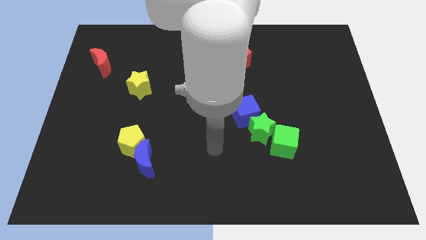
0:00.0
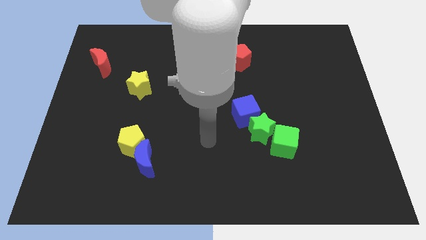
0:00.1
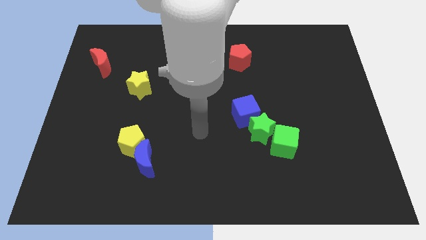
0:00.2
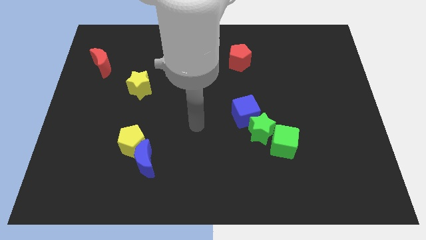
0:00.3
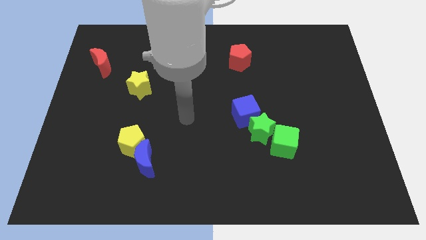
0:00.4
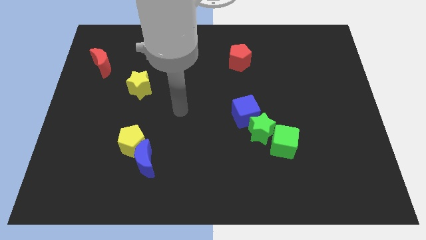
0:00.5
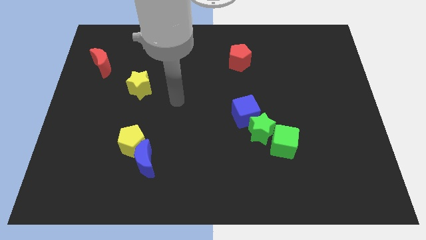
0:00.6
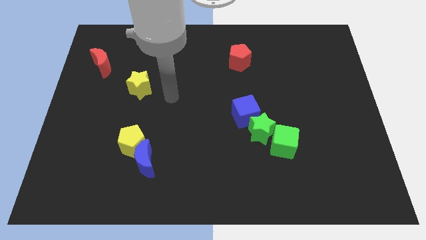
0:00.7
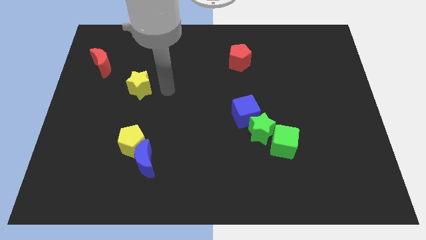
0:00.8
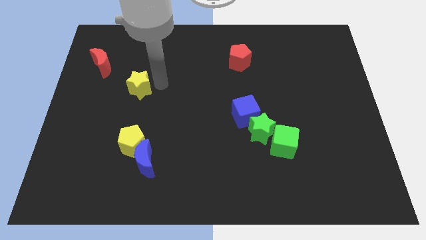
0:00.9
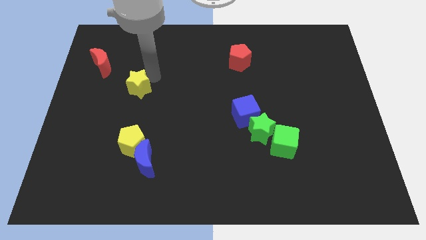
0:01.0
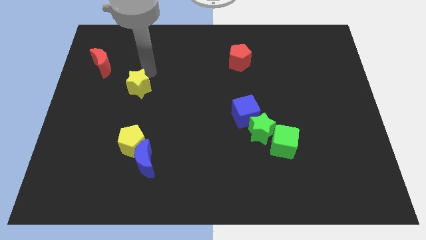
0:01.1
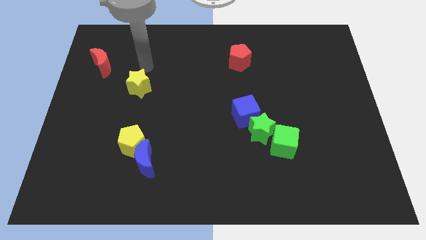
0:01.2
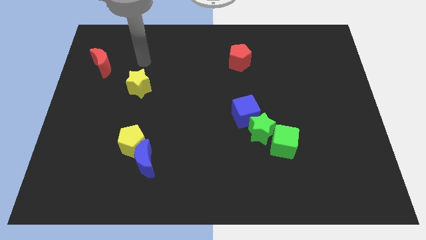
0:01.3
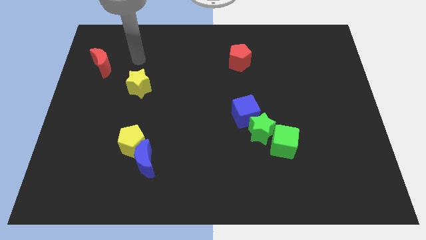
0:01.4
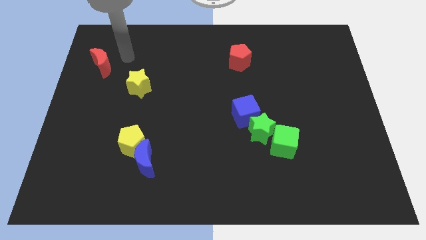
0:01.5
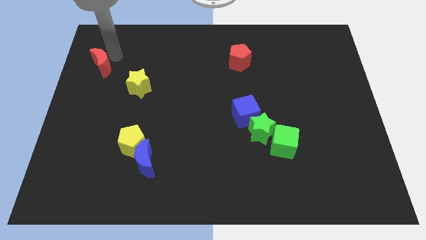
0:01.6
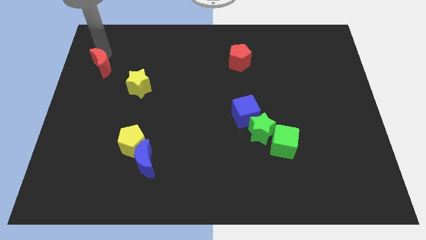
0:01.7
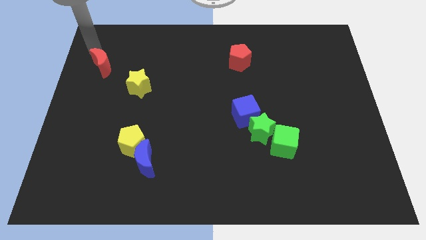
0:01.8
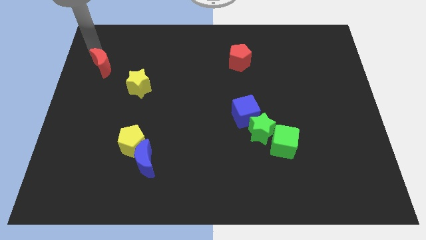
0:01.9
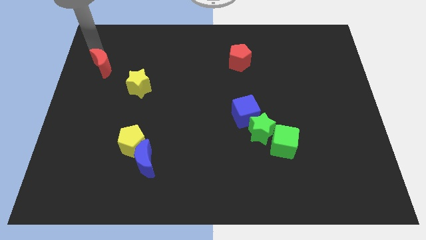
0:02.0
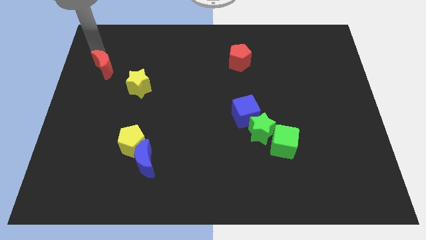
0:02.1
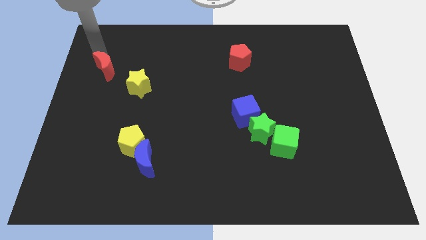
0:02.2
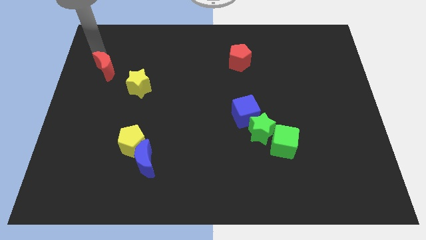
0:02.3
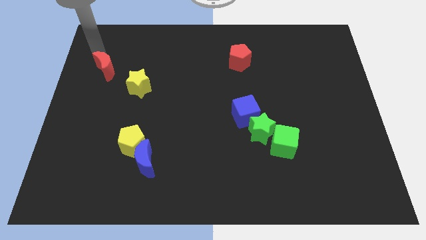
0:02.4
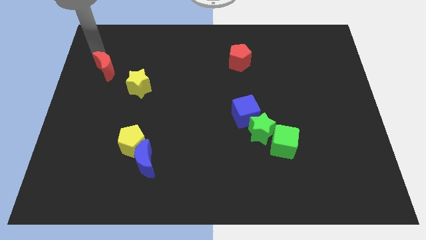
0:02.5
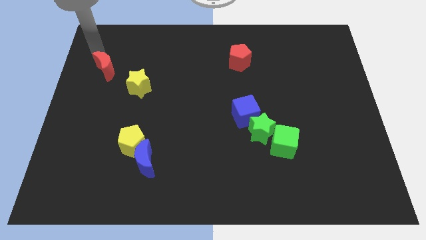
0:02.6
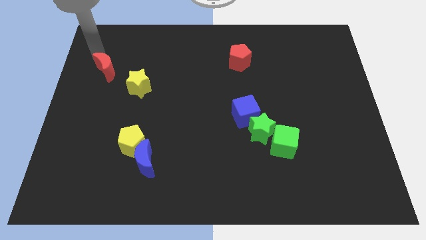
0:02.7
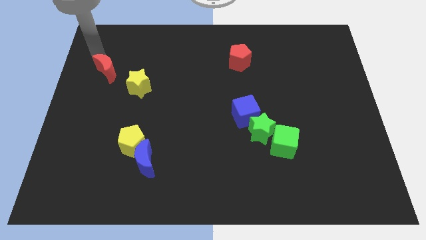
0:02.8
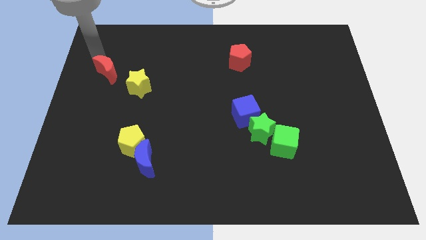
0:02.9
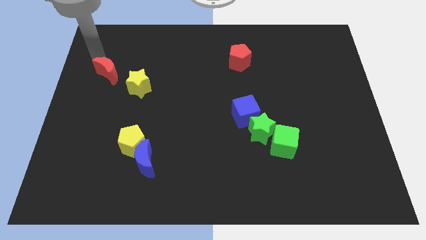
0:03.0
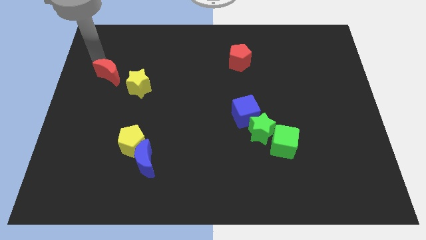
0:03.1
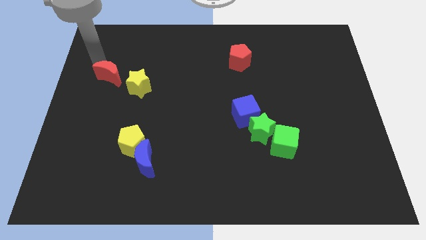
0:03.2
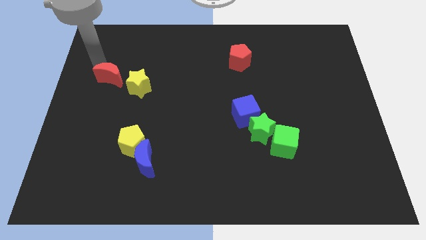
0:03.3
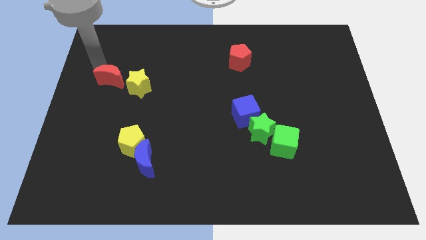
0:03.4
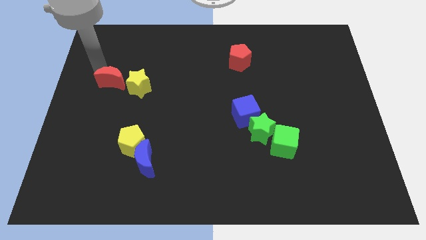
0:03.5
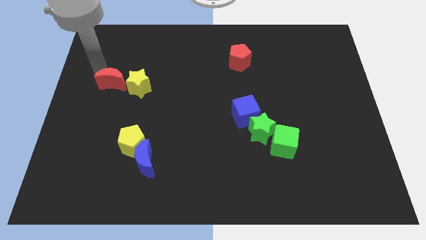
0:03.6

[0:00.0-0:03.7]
slide the red moon diagonally downwards and to the right slightly

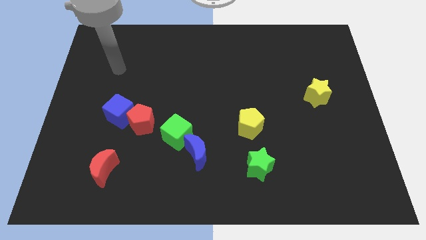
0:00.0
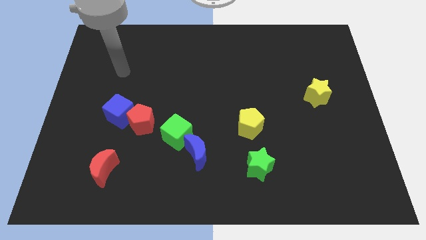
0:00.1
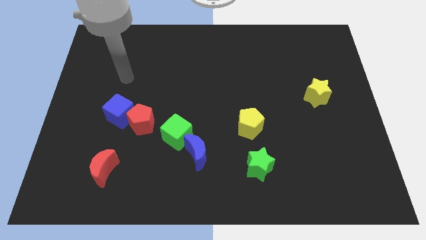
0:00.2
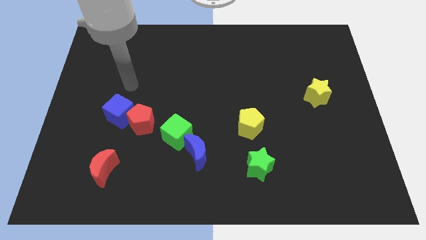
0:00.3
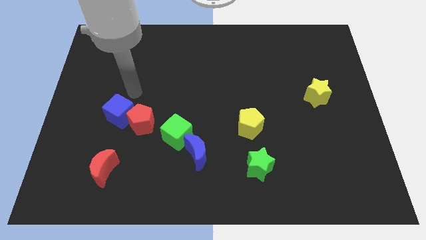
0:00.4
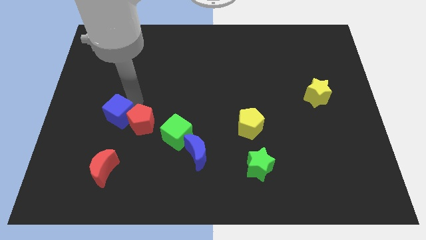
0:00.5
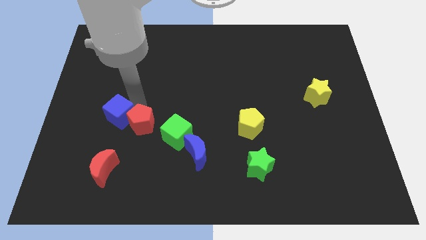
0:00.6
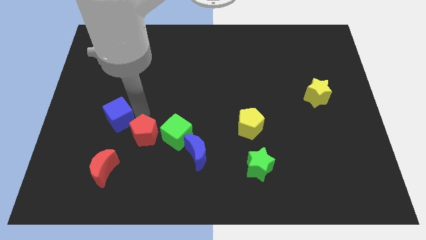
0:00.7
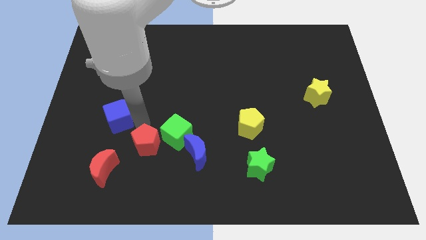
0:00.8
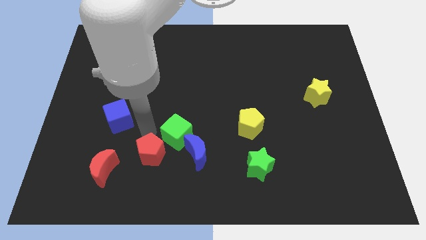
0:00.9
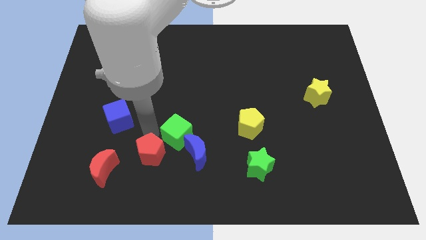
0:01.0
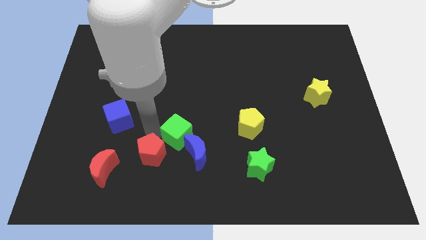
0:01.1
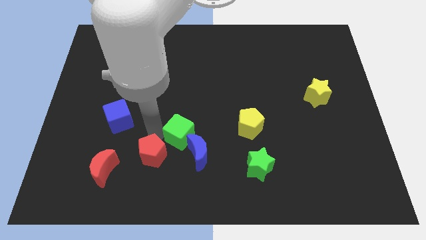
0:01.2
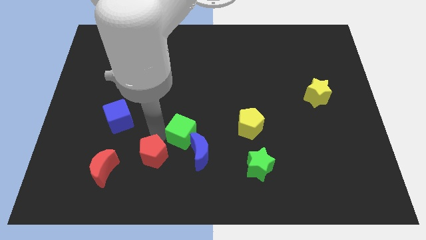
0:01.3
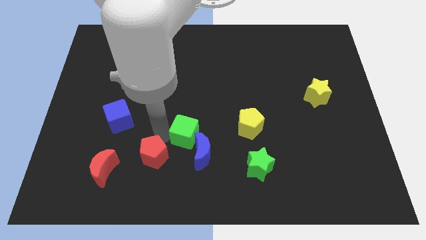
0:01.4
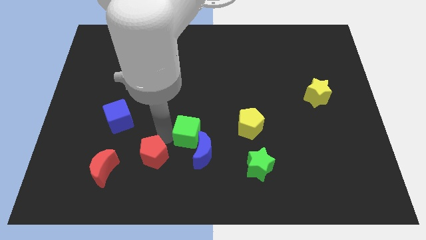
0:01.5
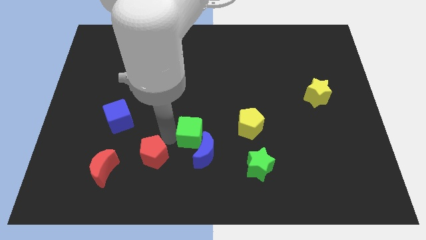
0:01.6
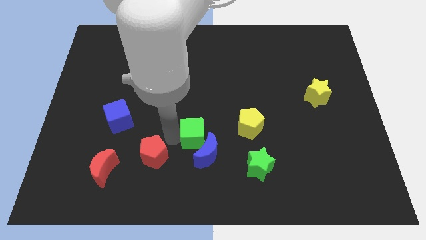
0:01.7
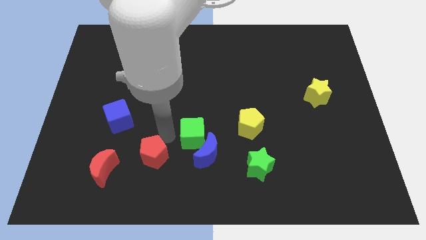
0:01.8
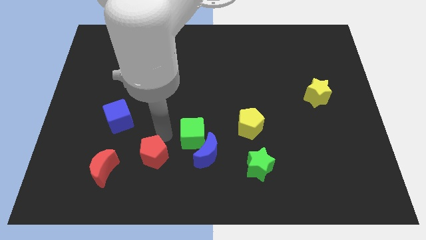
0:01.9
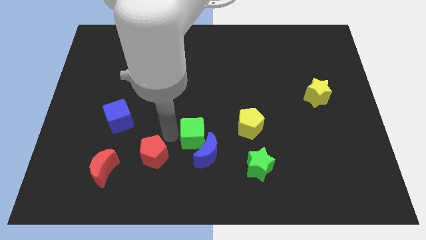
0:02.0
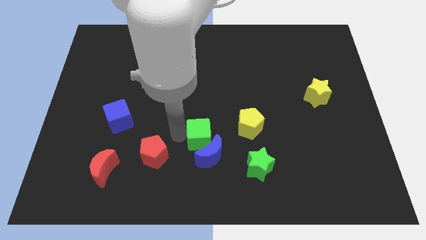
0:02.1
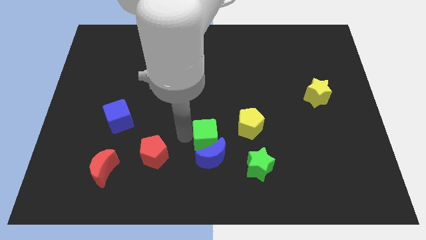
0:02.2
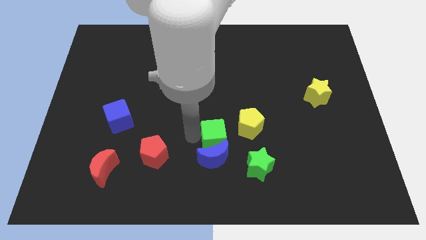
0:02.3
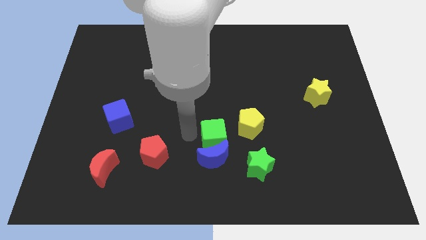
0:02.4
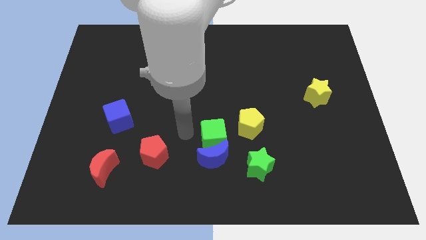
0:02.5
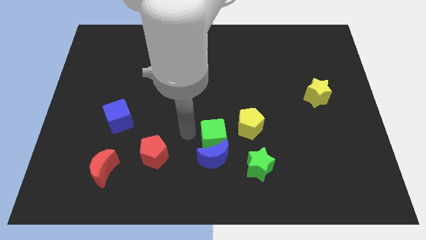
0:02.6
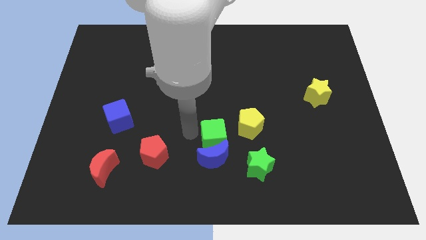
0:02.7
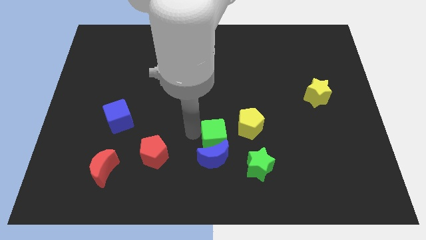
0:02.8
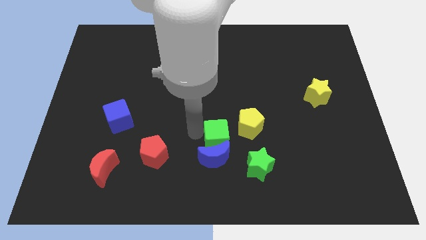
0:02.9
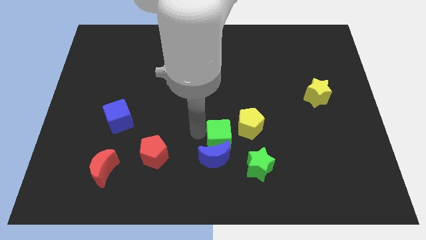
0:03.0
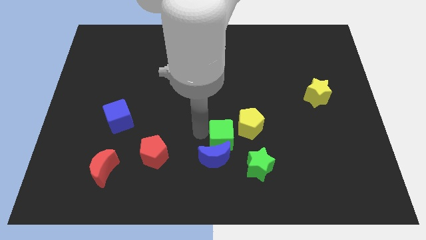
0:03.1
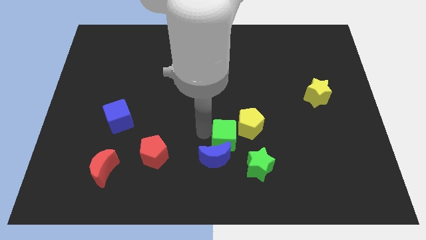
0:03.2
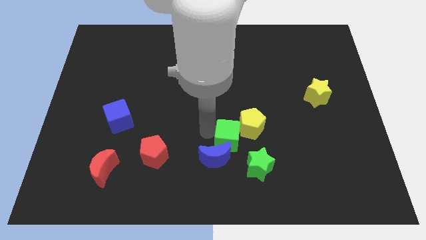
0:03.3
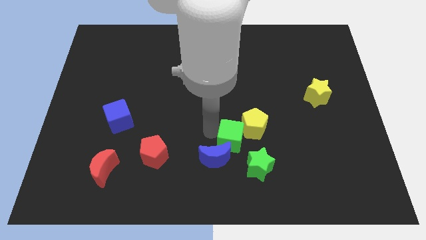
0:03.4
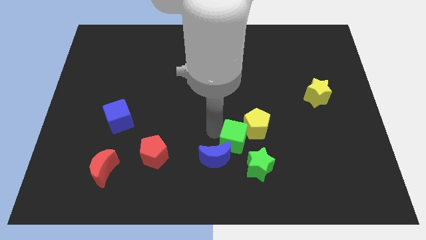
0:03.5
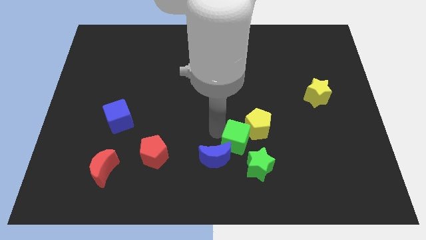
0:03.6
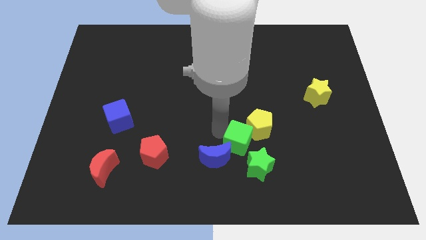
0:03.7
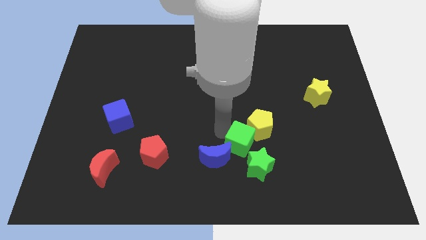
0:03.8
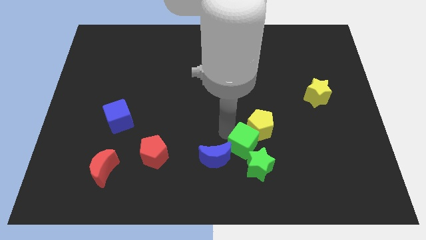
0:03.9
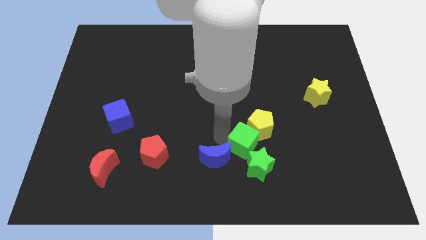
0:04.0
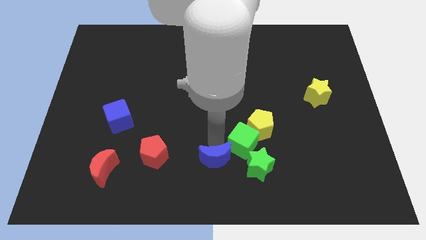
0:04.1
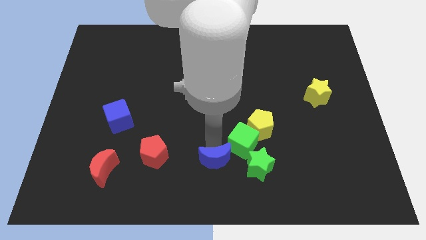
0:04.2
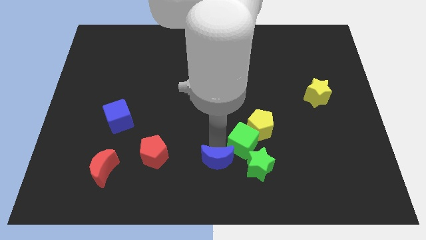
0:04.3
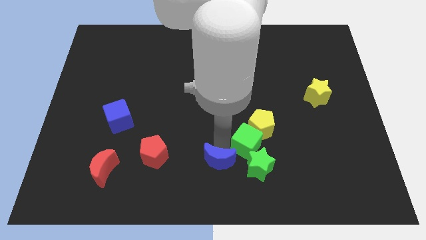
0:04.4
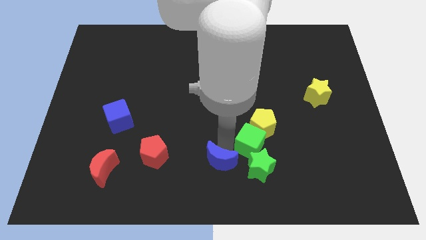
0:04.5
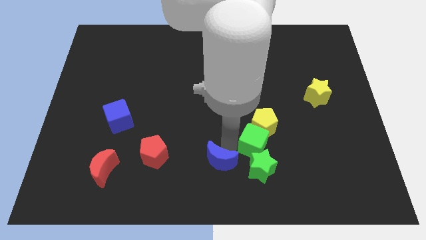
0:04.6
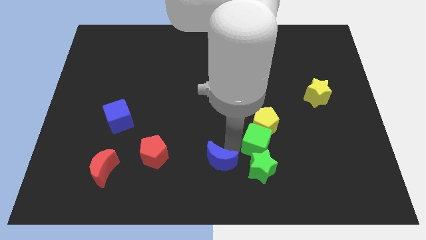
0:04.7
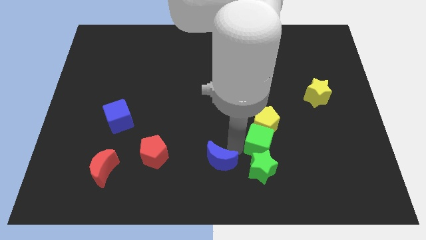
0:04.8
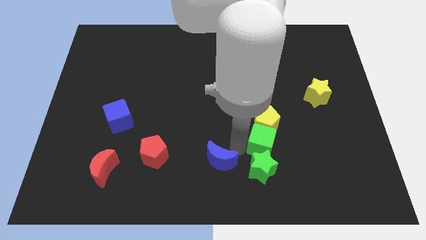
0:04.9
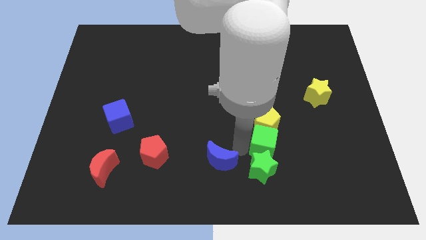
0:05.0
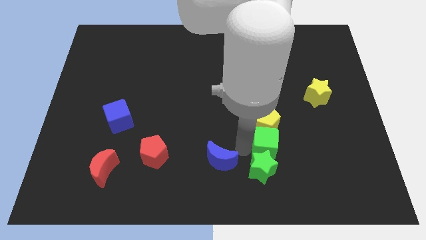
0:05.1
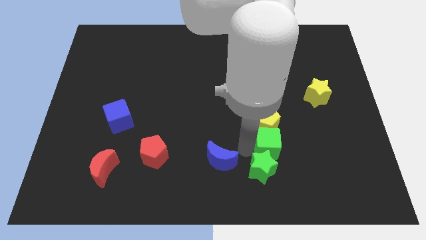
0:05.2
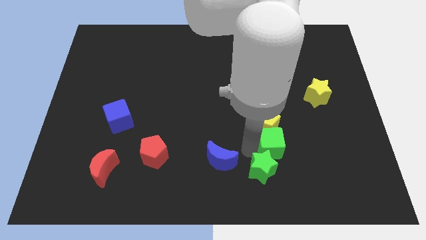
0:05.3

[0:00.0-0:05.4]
move the green cube to the right
